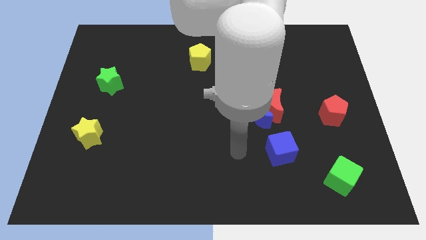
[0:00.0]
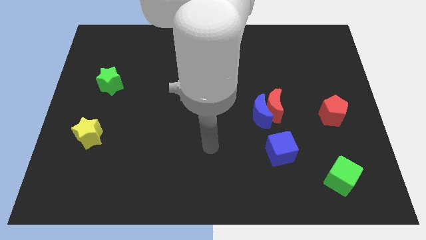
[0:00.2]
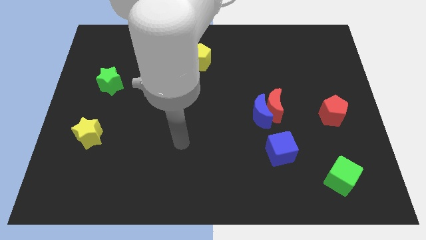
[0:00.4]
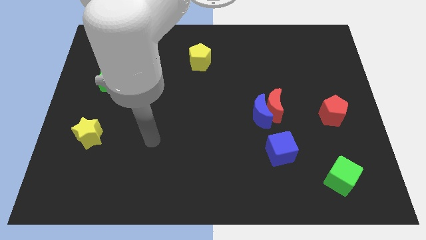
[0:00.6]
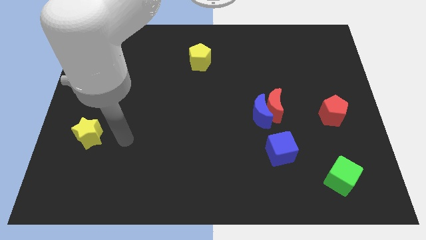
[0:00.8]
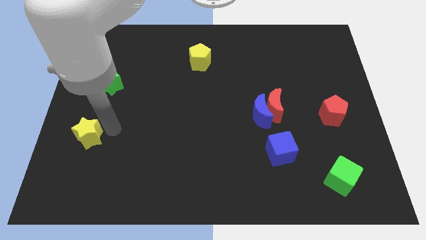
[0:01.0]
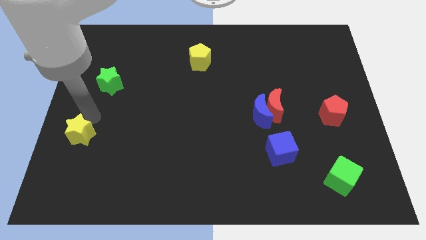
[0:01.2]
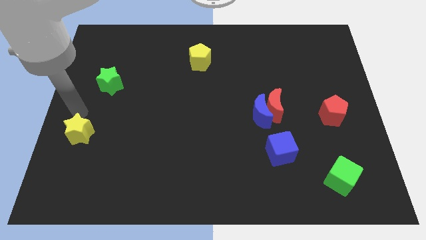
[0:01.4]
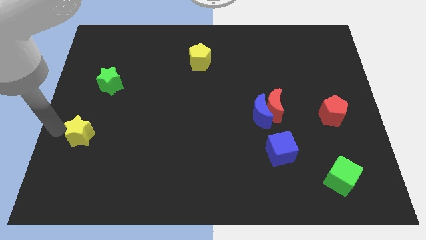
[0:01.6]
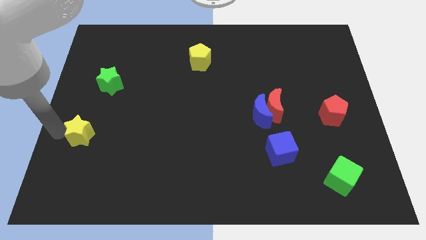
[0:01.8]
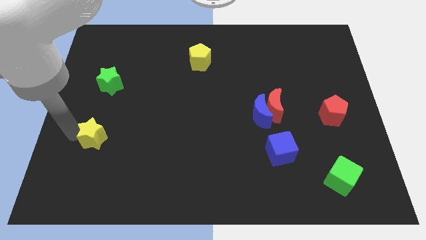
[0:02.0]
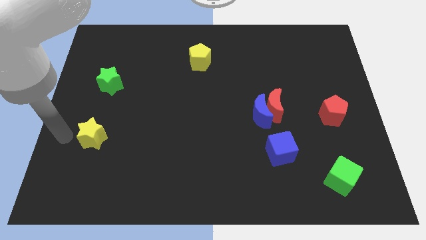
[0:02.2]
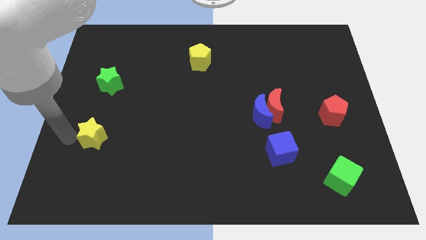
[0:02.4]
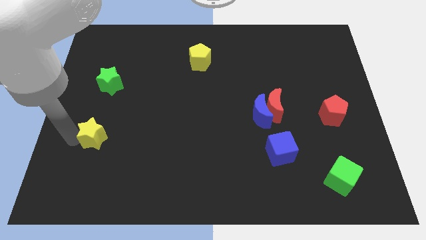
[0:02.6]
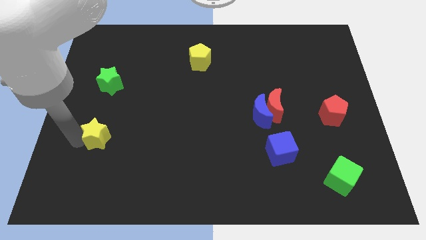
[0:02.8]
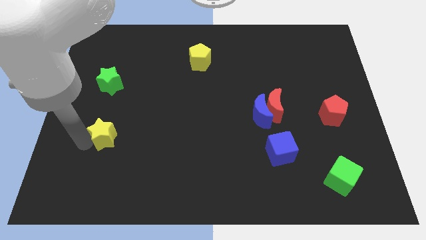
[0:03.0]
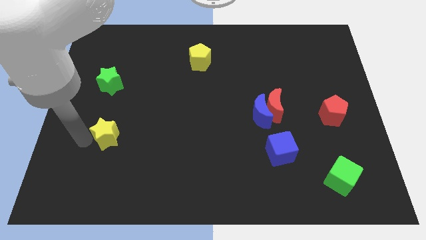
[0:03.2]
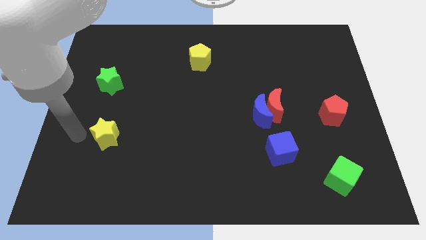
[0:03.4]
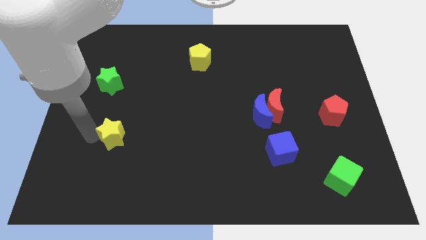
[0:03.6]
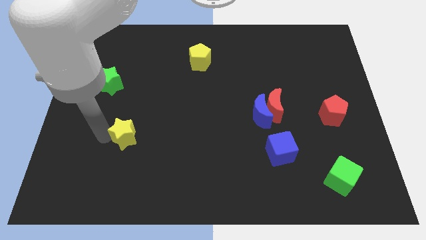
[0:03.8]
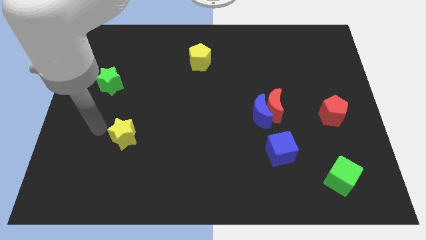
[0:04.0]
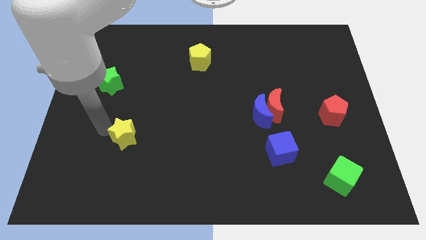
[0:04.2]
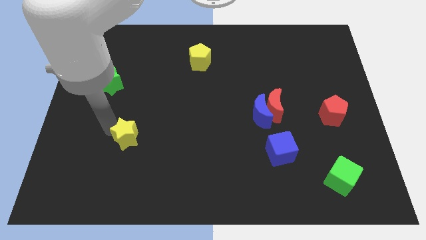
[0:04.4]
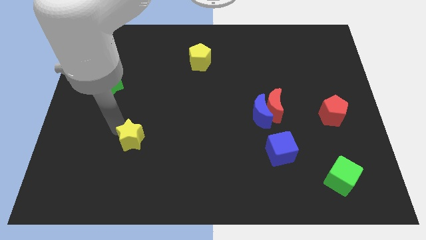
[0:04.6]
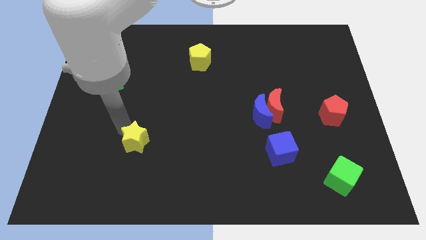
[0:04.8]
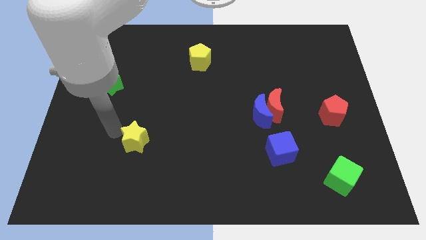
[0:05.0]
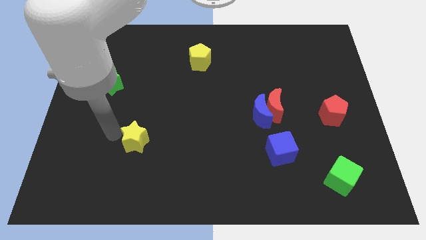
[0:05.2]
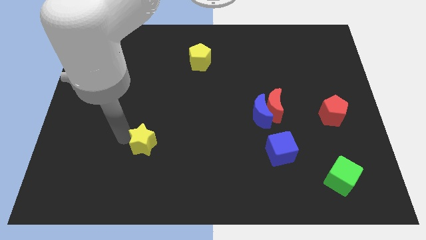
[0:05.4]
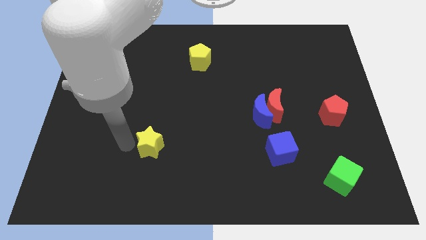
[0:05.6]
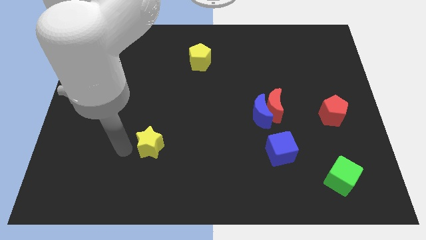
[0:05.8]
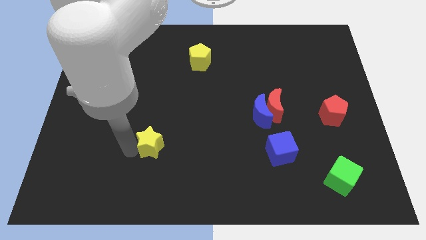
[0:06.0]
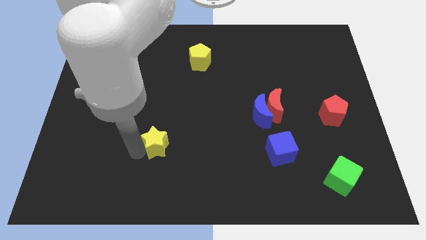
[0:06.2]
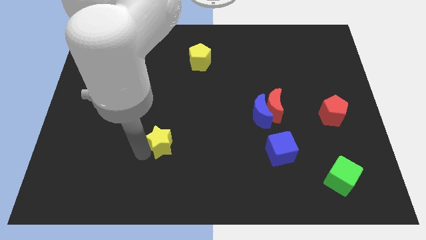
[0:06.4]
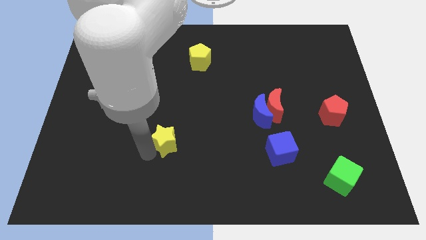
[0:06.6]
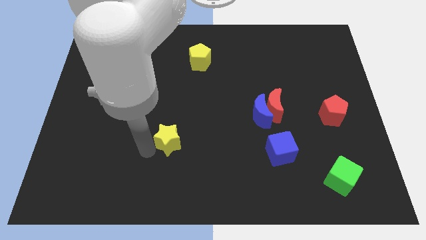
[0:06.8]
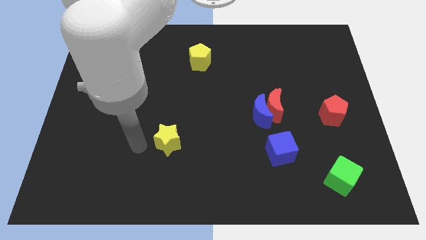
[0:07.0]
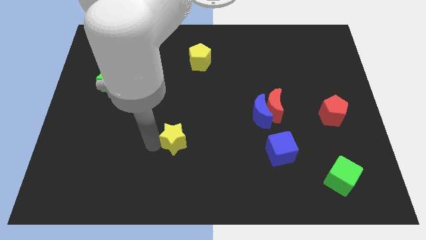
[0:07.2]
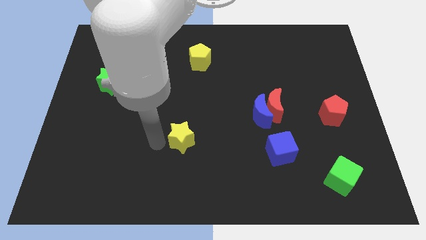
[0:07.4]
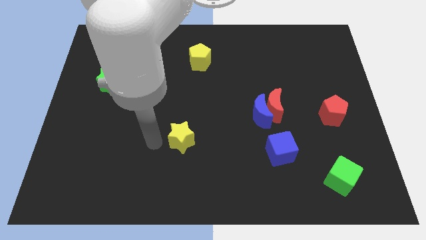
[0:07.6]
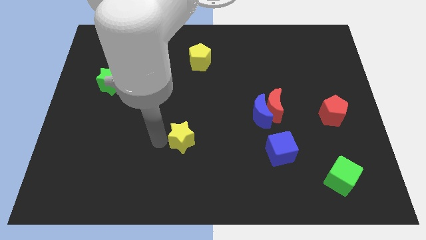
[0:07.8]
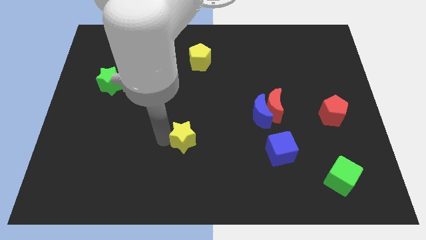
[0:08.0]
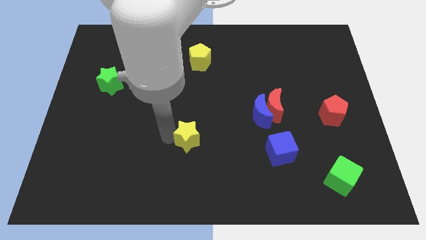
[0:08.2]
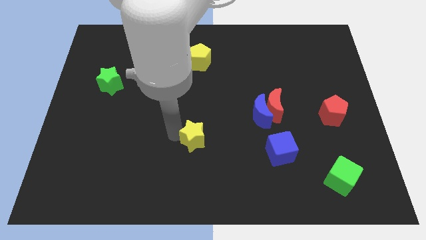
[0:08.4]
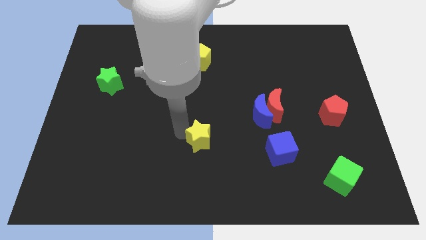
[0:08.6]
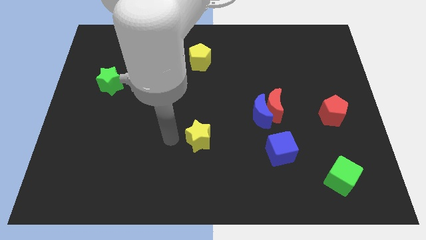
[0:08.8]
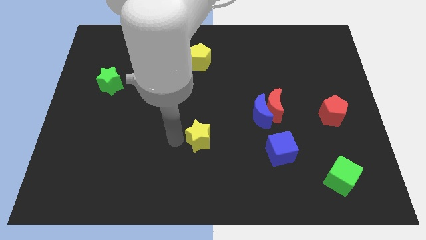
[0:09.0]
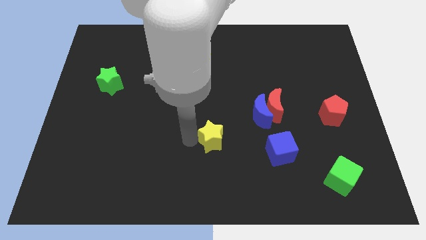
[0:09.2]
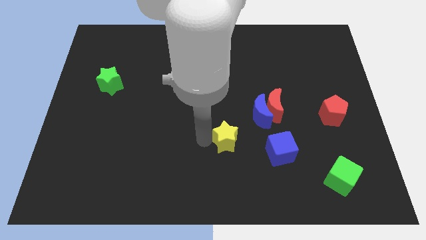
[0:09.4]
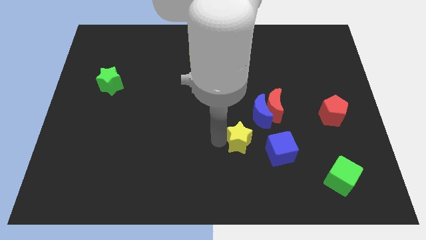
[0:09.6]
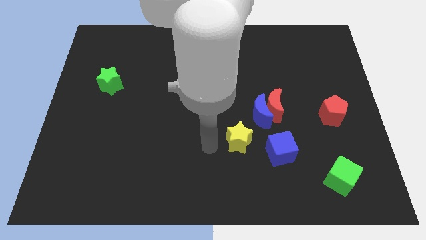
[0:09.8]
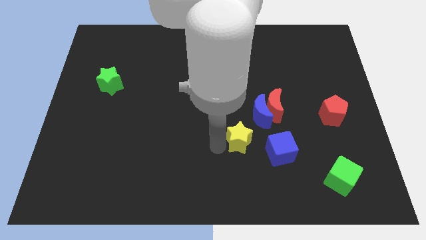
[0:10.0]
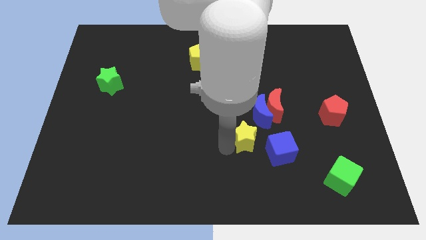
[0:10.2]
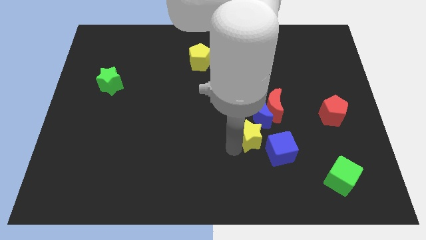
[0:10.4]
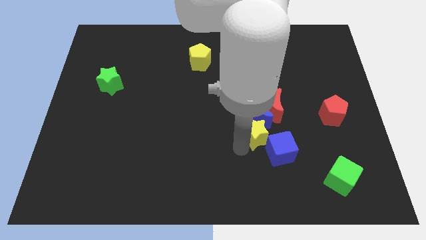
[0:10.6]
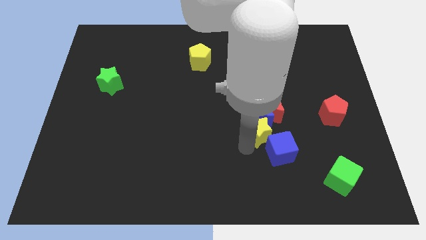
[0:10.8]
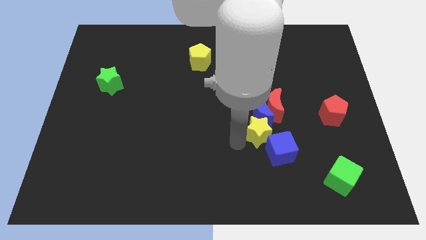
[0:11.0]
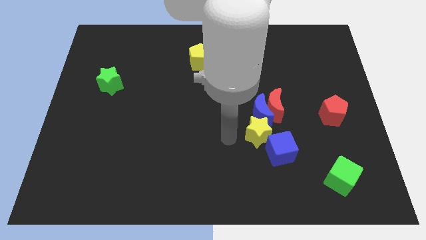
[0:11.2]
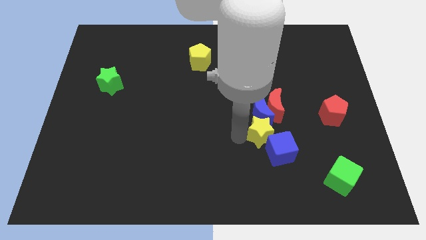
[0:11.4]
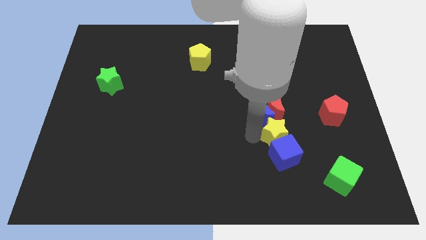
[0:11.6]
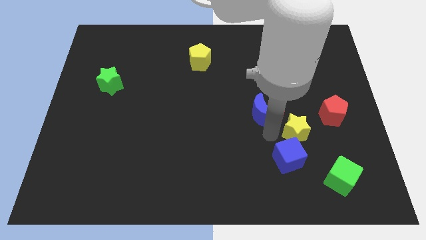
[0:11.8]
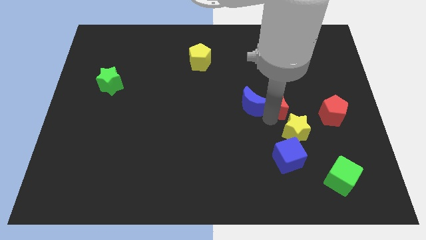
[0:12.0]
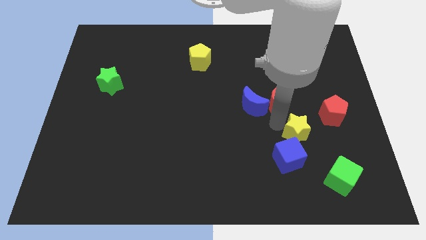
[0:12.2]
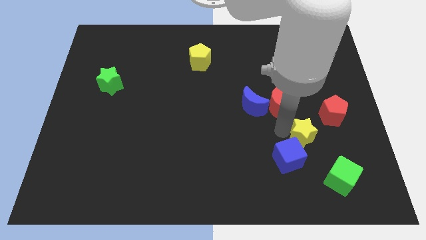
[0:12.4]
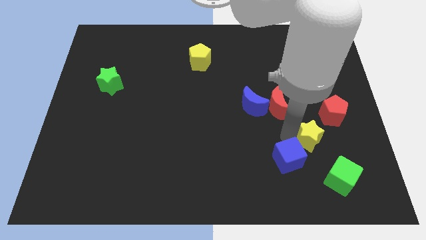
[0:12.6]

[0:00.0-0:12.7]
move the yellow star right of the blue cube
